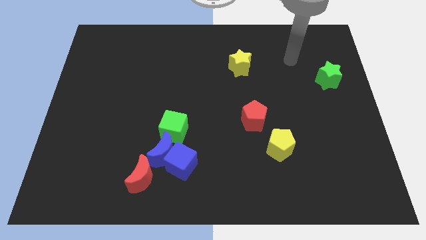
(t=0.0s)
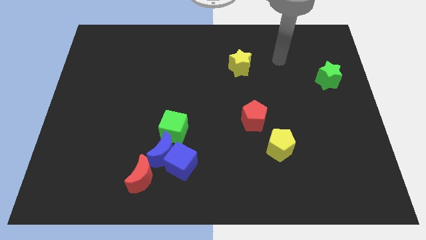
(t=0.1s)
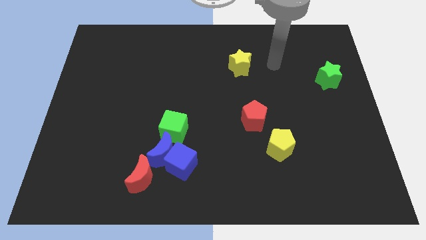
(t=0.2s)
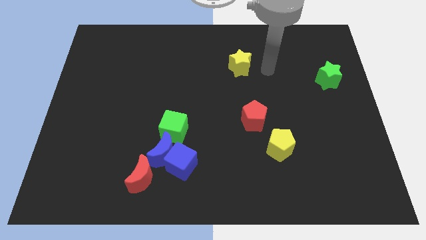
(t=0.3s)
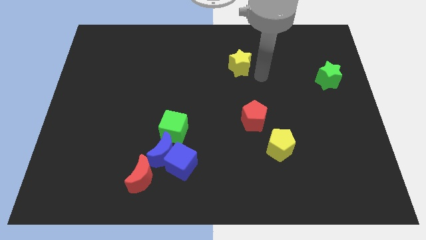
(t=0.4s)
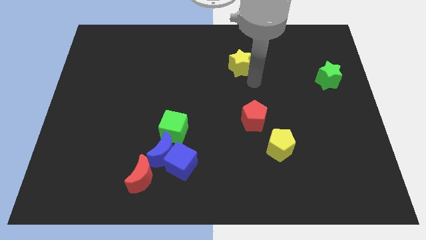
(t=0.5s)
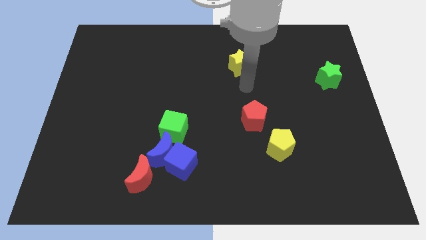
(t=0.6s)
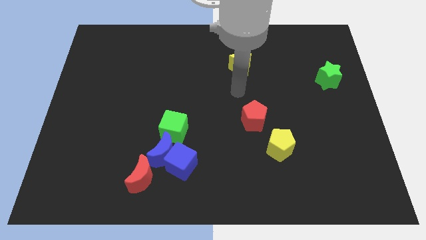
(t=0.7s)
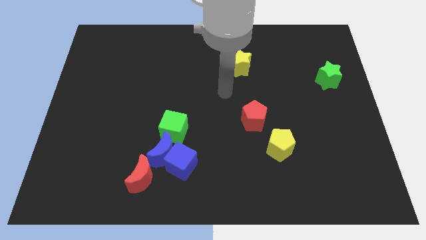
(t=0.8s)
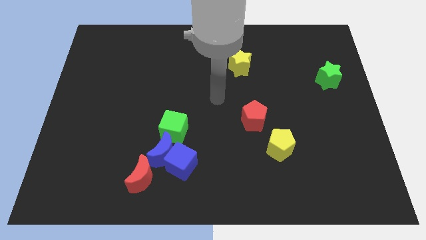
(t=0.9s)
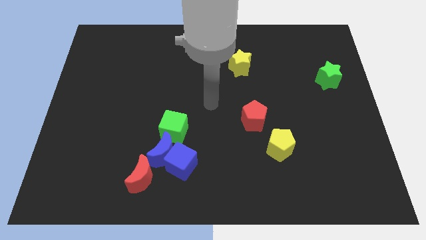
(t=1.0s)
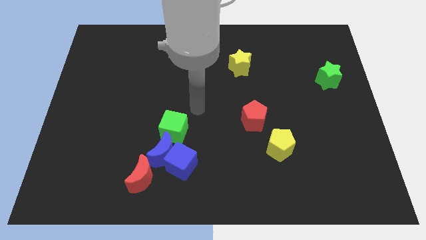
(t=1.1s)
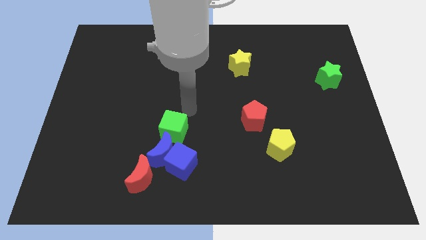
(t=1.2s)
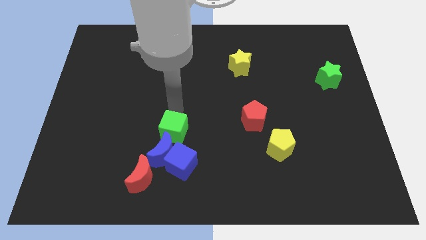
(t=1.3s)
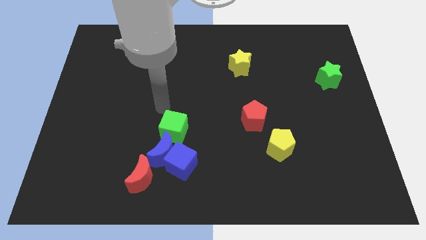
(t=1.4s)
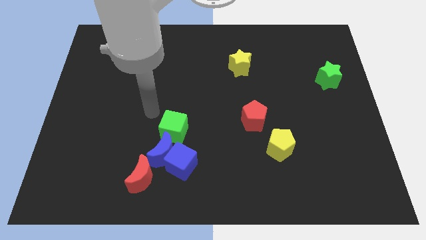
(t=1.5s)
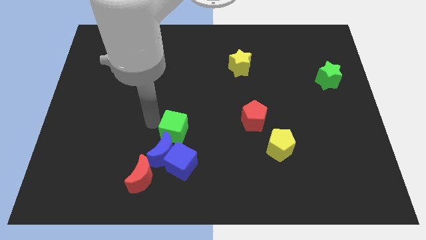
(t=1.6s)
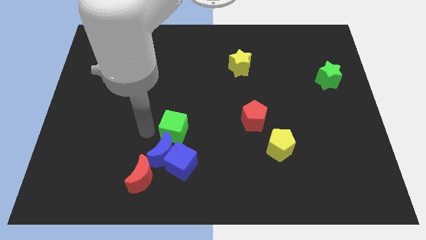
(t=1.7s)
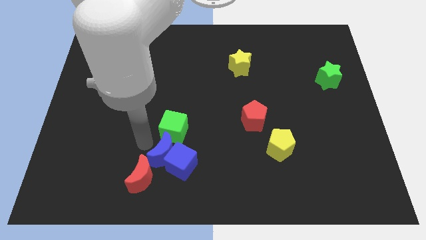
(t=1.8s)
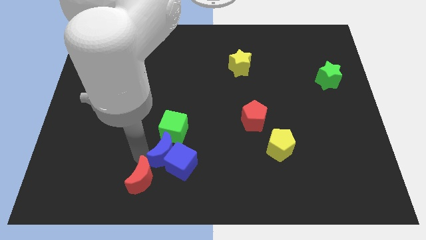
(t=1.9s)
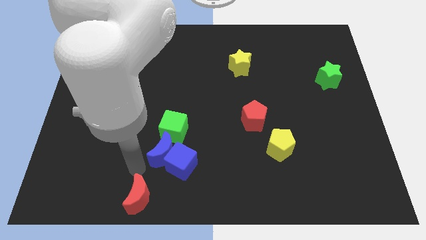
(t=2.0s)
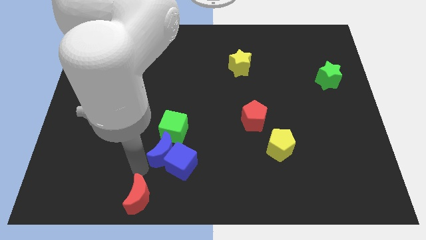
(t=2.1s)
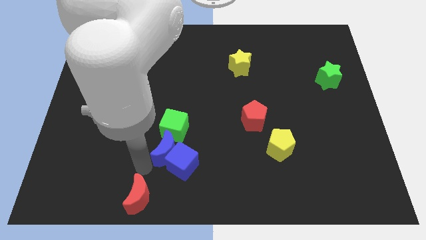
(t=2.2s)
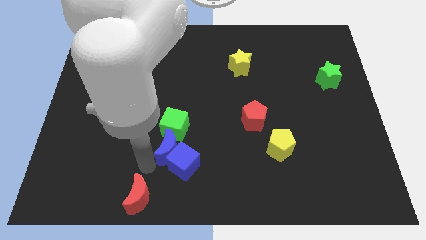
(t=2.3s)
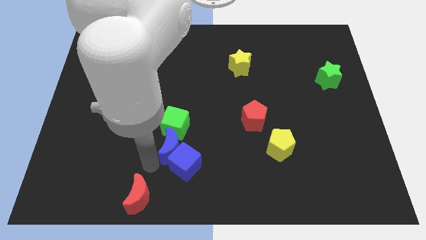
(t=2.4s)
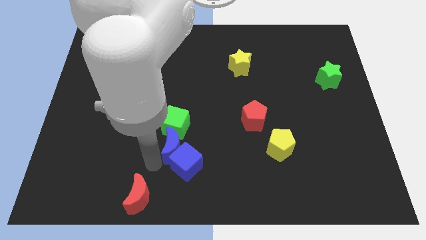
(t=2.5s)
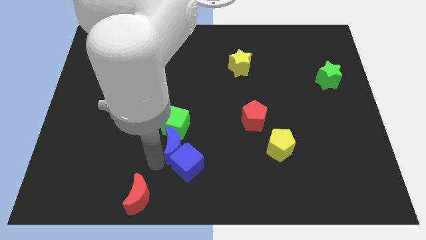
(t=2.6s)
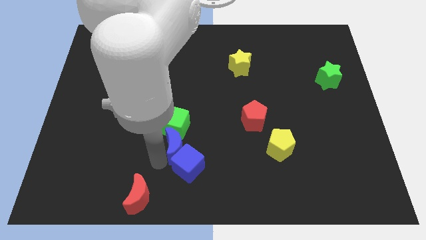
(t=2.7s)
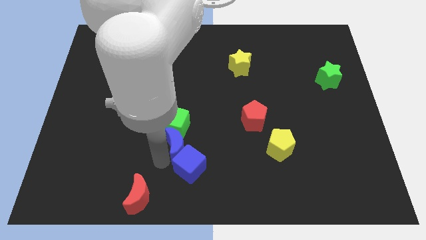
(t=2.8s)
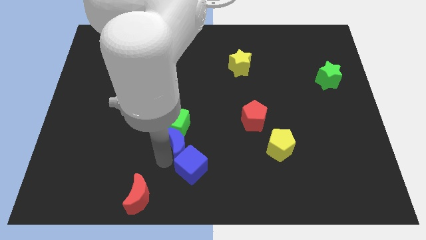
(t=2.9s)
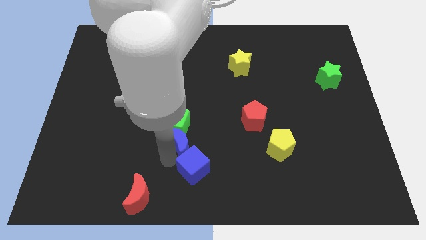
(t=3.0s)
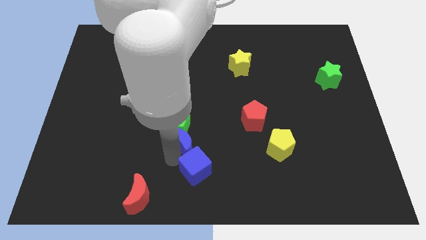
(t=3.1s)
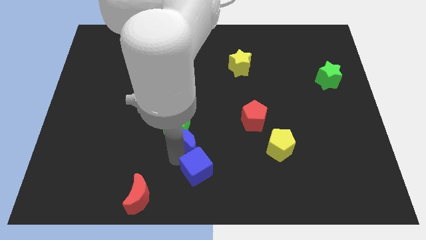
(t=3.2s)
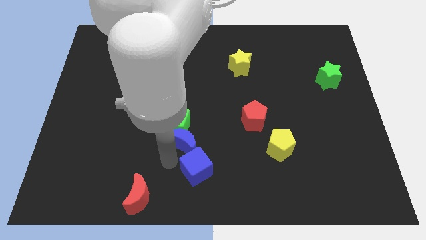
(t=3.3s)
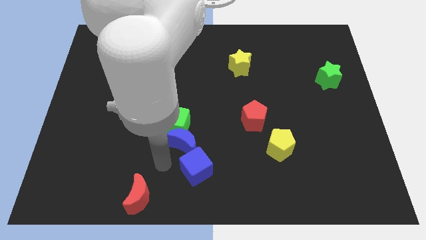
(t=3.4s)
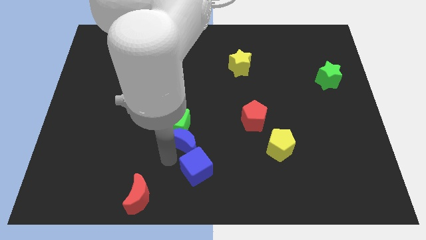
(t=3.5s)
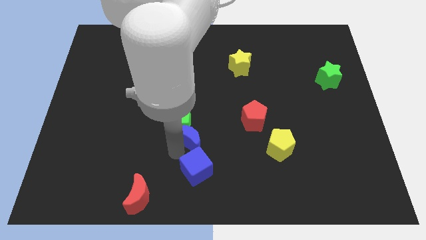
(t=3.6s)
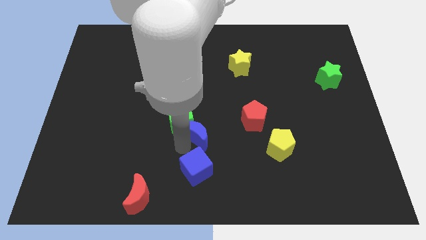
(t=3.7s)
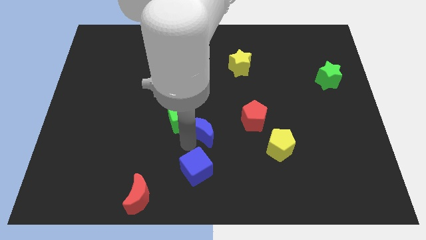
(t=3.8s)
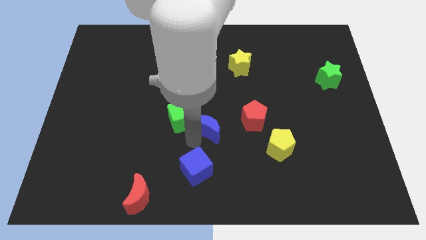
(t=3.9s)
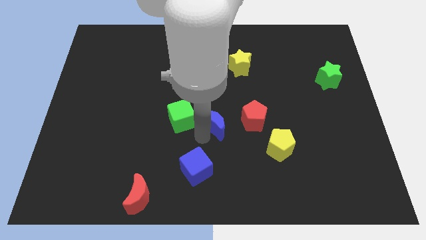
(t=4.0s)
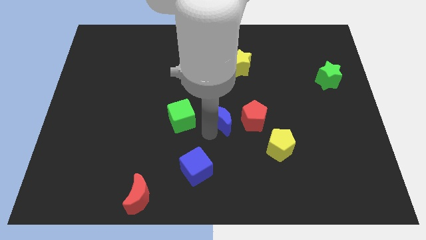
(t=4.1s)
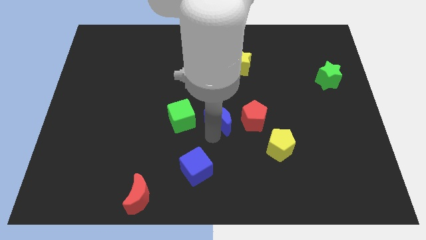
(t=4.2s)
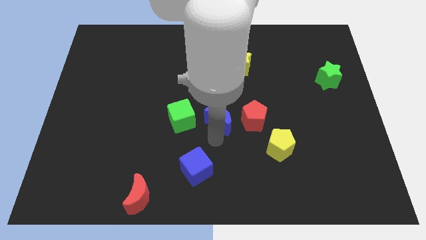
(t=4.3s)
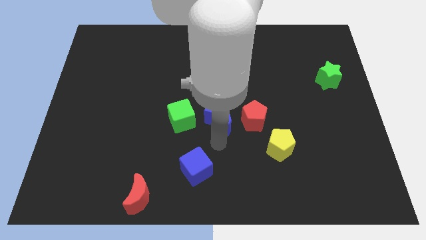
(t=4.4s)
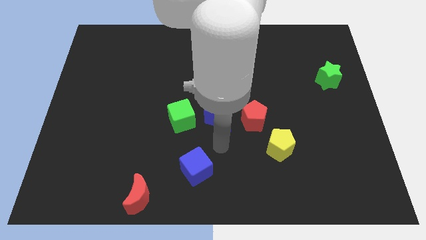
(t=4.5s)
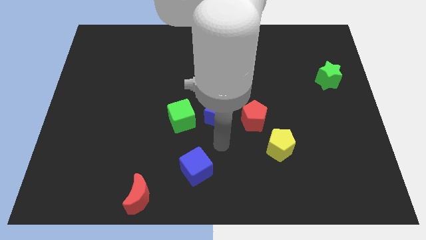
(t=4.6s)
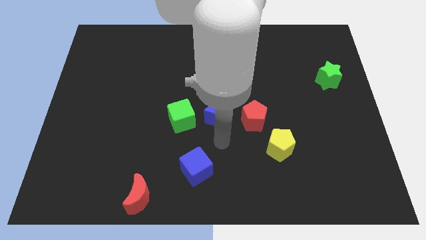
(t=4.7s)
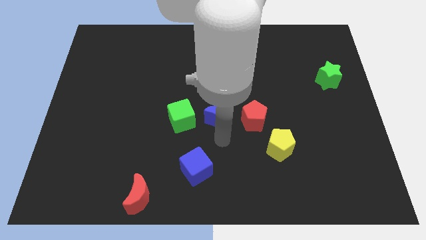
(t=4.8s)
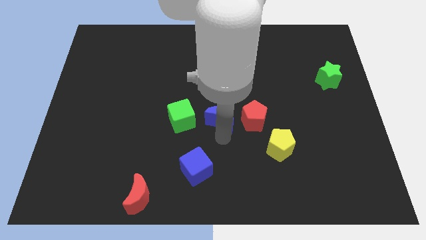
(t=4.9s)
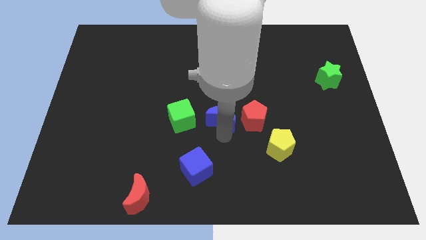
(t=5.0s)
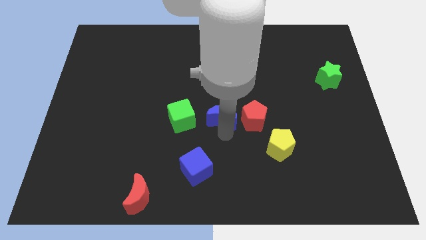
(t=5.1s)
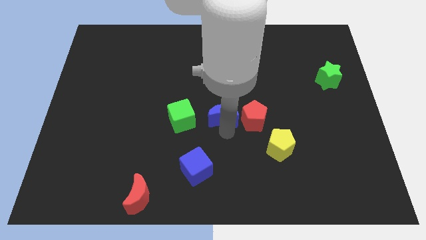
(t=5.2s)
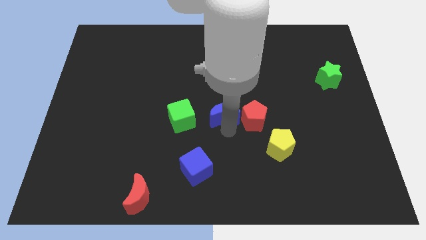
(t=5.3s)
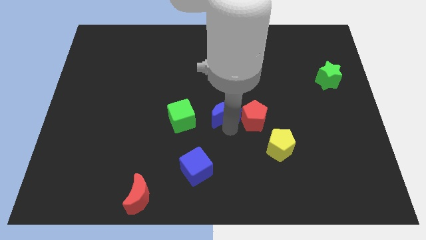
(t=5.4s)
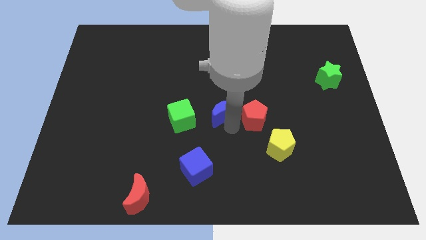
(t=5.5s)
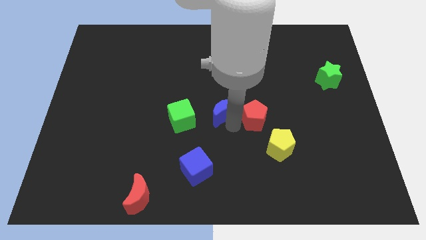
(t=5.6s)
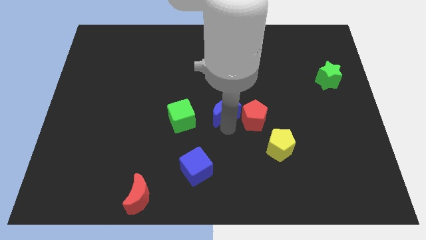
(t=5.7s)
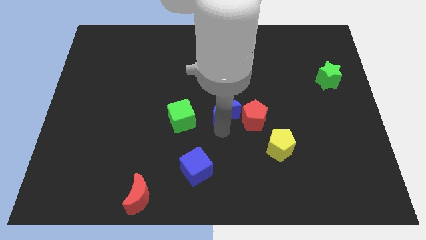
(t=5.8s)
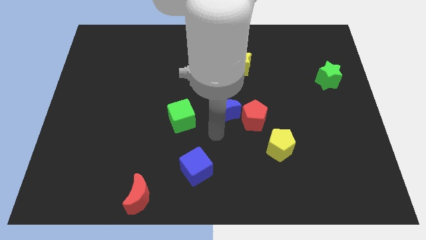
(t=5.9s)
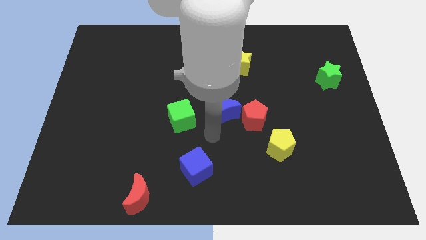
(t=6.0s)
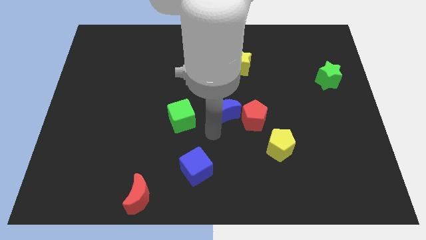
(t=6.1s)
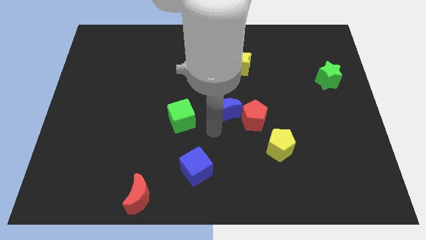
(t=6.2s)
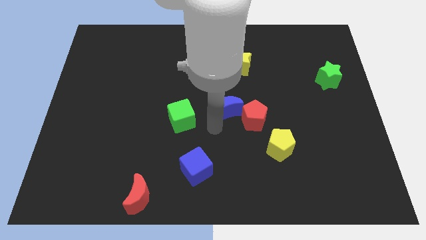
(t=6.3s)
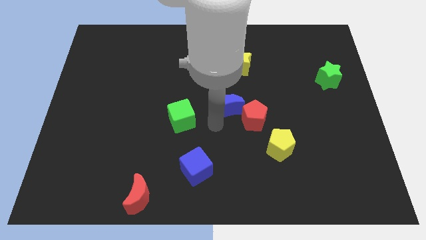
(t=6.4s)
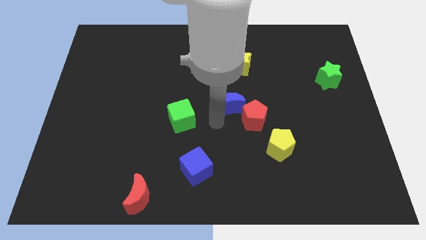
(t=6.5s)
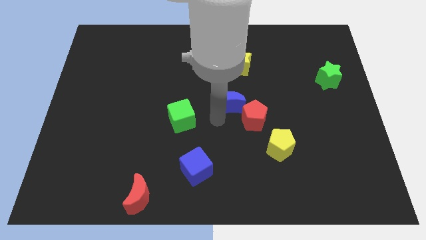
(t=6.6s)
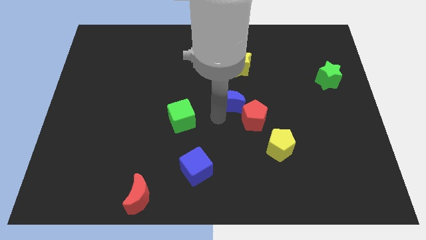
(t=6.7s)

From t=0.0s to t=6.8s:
push the blue moon upwards and to the right

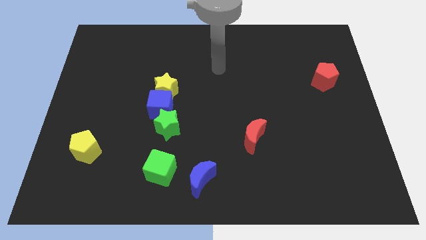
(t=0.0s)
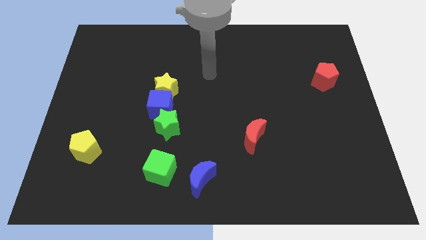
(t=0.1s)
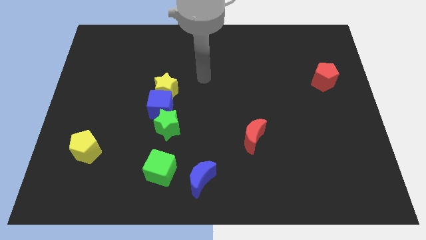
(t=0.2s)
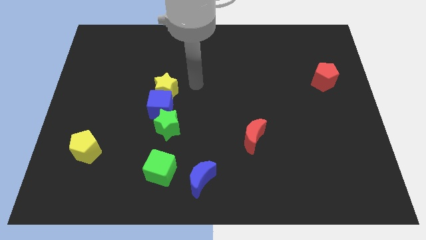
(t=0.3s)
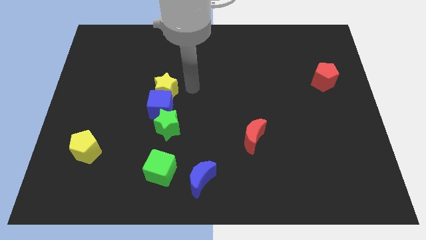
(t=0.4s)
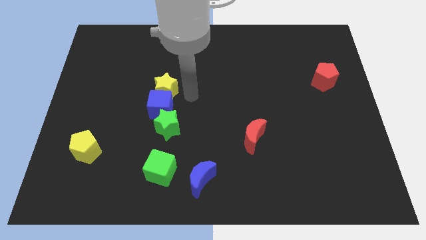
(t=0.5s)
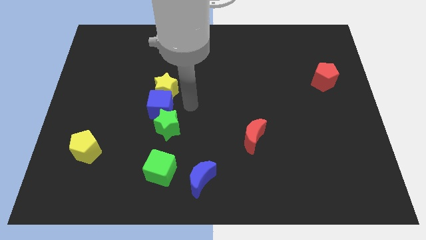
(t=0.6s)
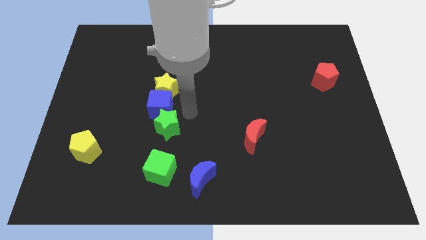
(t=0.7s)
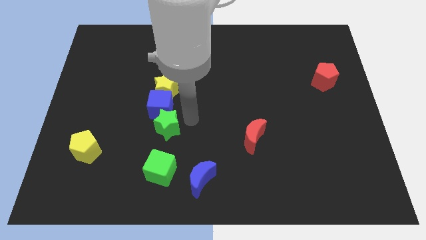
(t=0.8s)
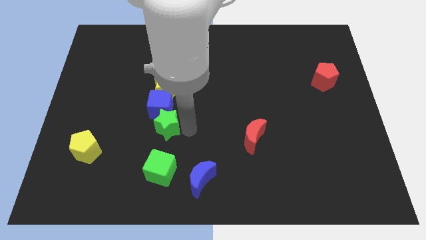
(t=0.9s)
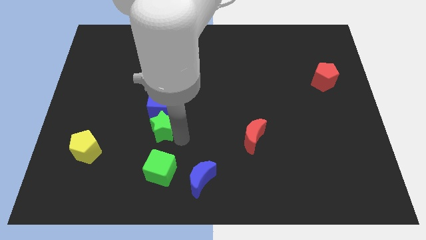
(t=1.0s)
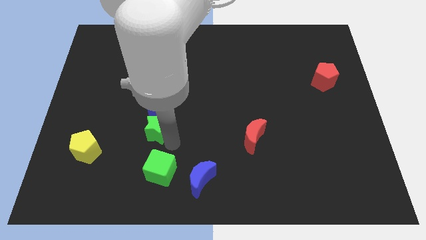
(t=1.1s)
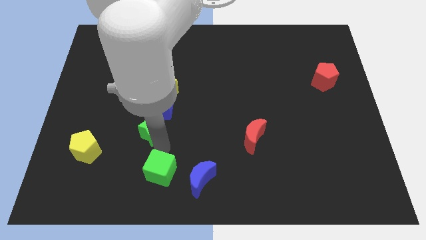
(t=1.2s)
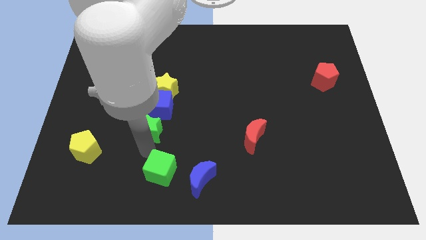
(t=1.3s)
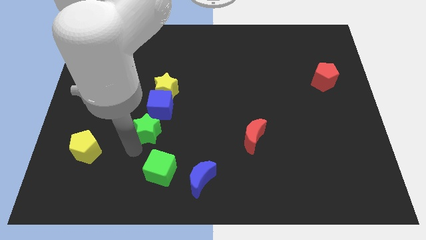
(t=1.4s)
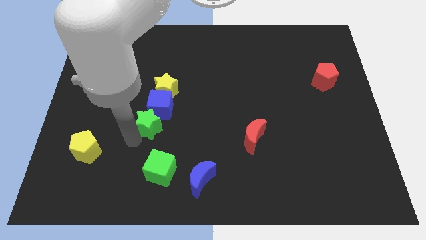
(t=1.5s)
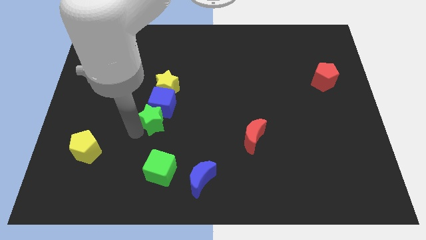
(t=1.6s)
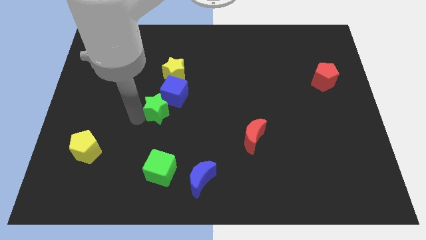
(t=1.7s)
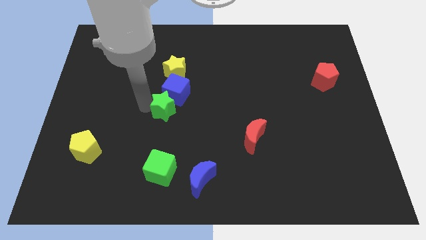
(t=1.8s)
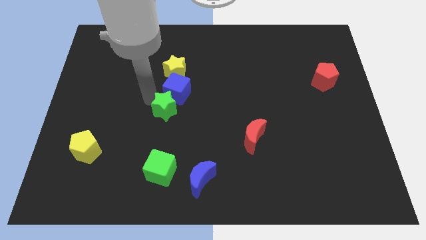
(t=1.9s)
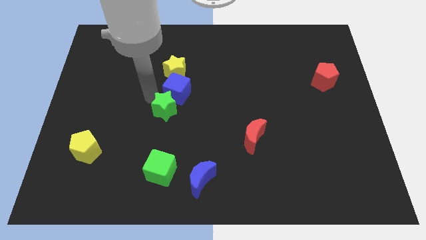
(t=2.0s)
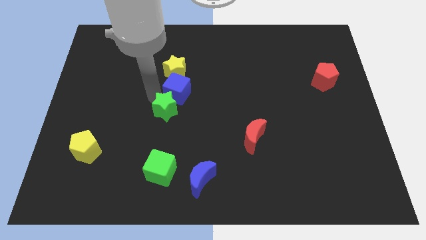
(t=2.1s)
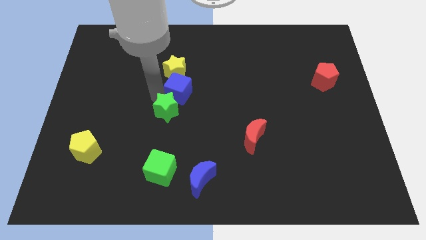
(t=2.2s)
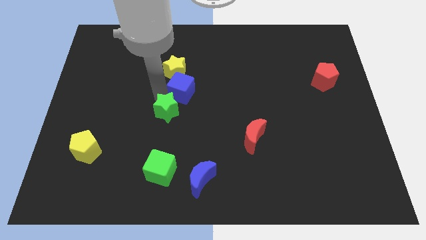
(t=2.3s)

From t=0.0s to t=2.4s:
push the blue cube upwards and to the right diagonally slightly
